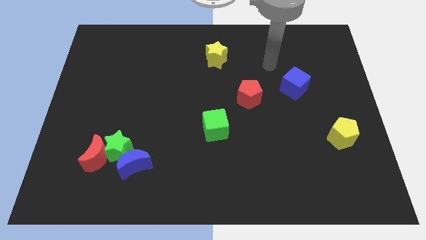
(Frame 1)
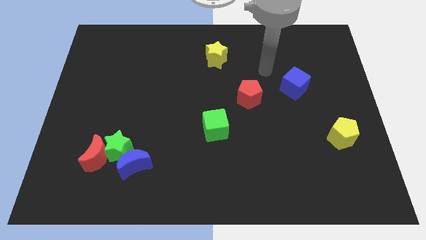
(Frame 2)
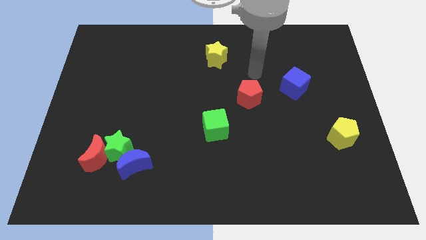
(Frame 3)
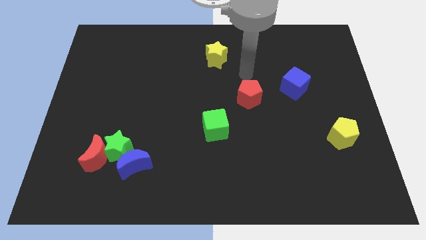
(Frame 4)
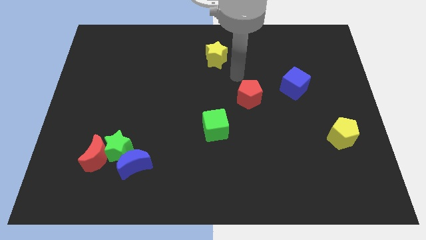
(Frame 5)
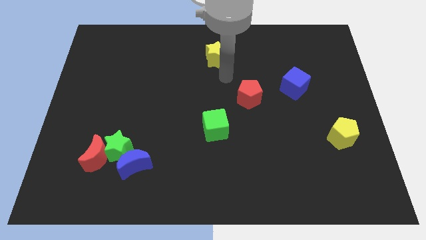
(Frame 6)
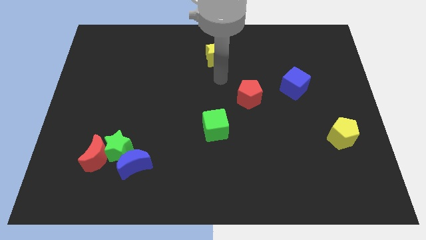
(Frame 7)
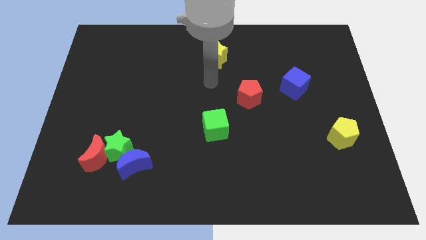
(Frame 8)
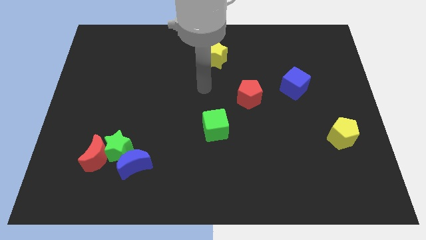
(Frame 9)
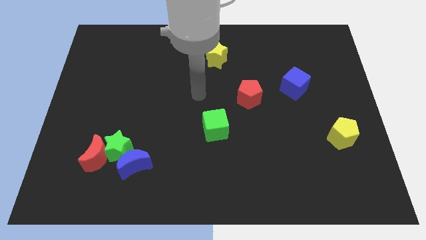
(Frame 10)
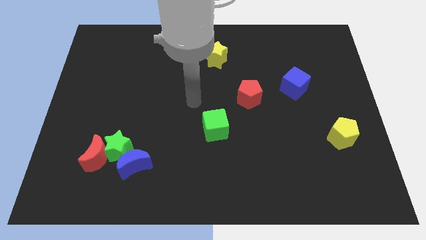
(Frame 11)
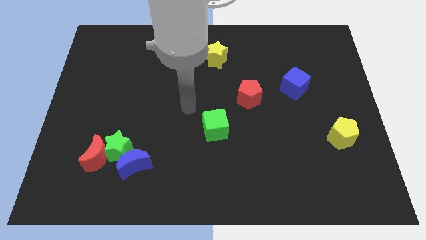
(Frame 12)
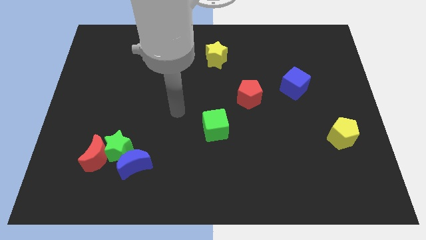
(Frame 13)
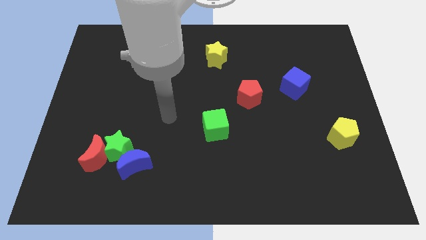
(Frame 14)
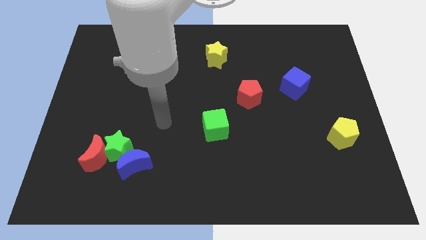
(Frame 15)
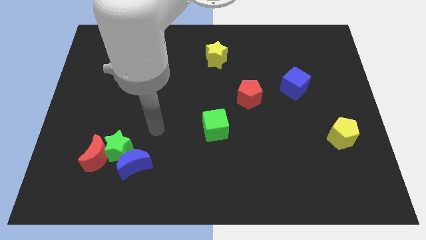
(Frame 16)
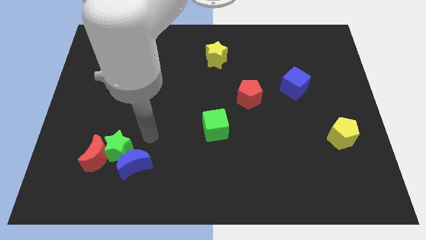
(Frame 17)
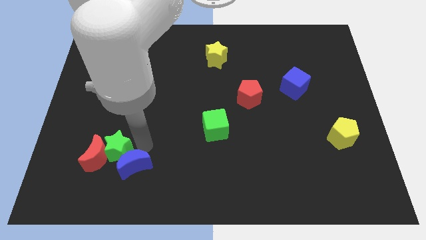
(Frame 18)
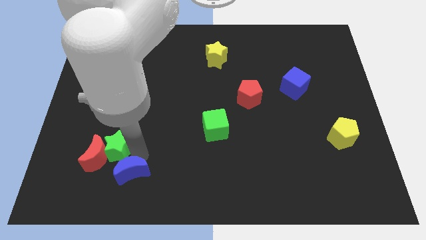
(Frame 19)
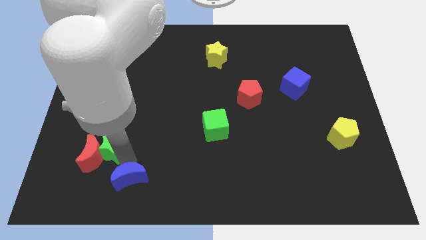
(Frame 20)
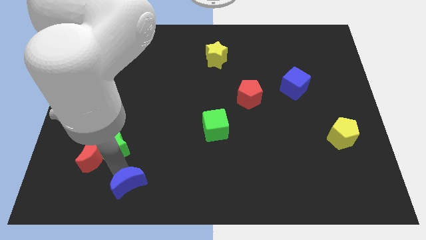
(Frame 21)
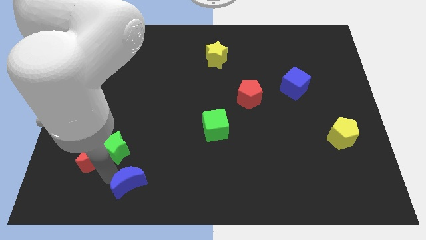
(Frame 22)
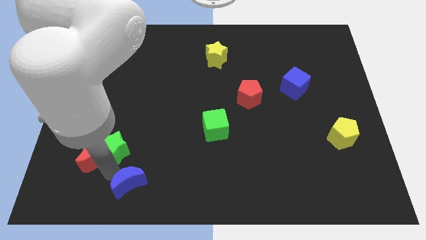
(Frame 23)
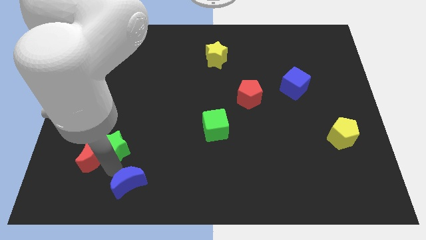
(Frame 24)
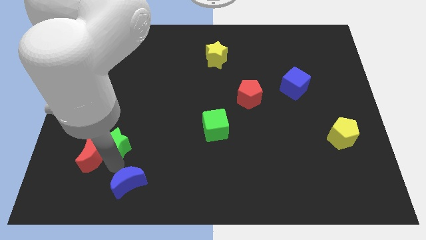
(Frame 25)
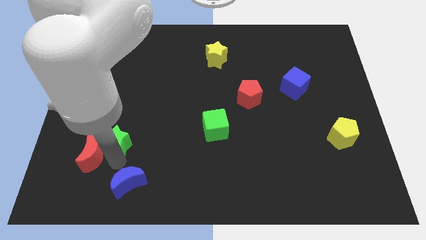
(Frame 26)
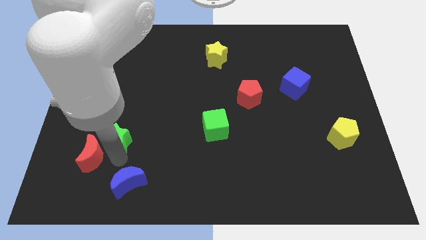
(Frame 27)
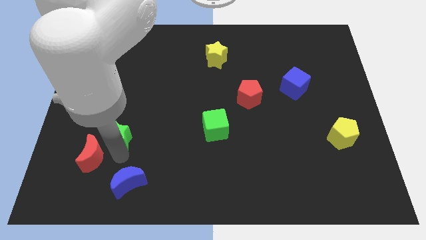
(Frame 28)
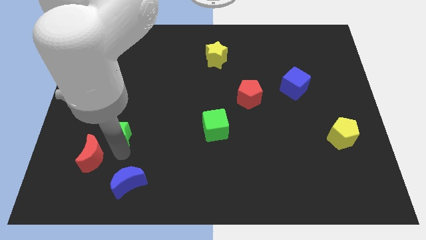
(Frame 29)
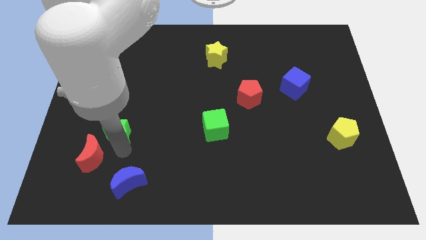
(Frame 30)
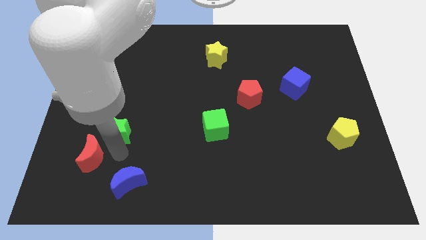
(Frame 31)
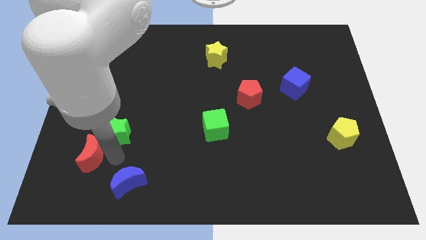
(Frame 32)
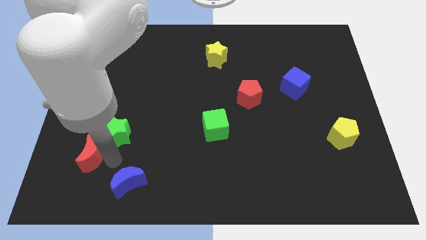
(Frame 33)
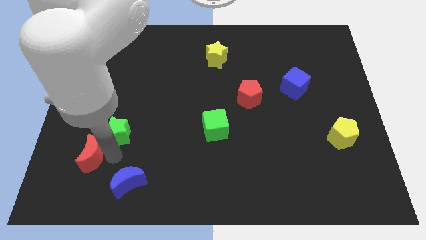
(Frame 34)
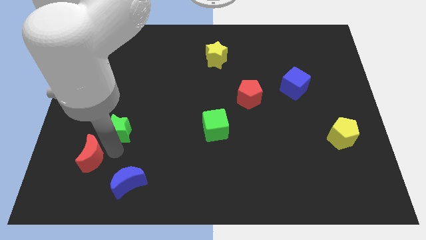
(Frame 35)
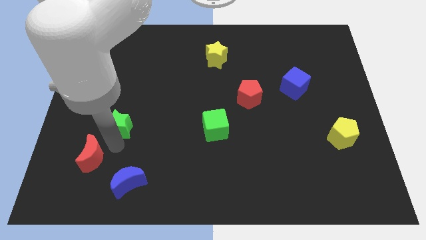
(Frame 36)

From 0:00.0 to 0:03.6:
pull the green star apart from the red moon and blue moon

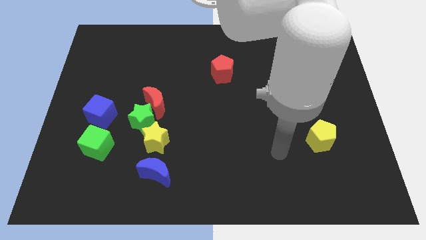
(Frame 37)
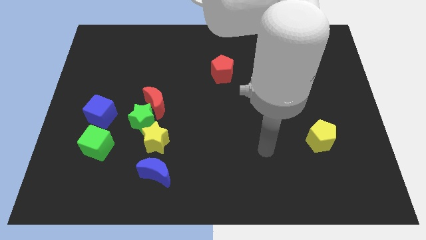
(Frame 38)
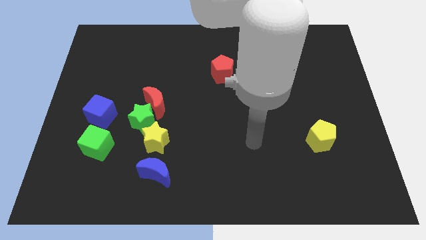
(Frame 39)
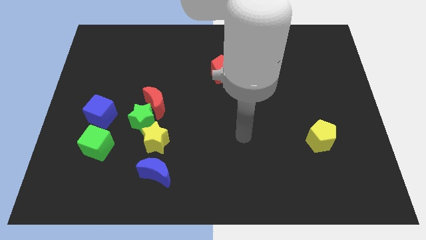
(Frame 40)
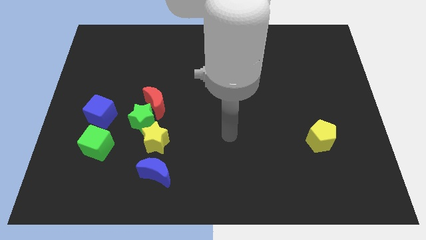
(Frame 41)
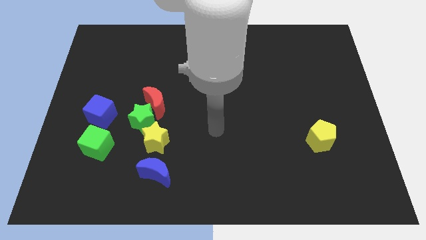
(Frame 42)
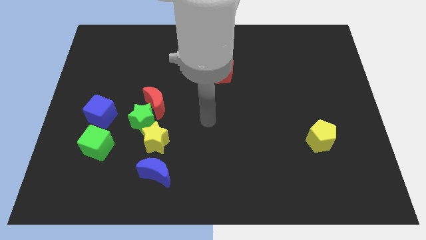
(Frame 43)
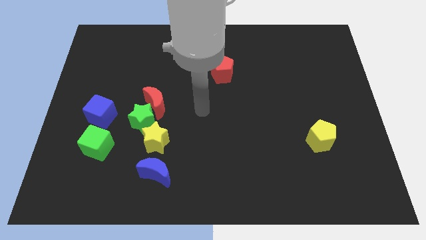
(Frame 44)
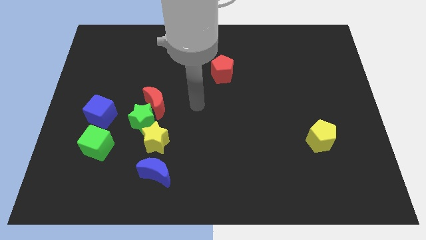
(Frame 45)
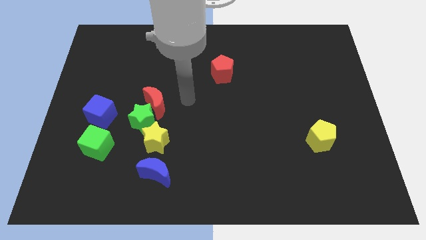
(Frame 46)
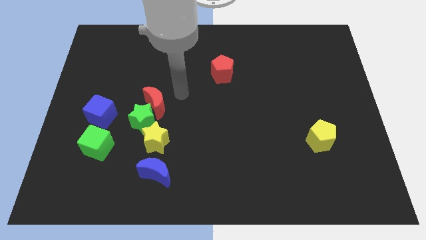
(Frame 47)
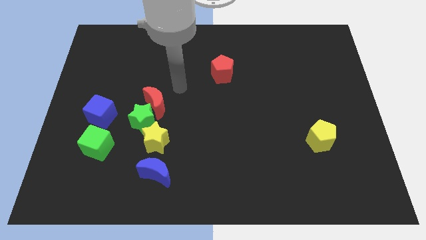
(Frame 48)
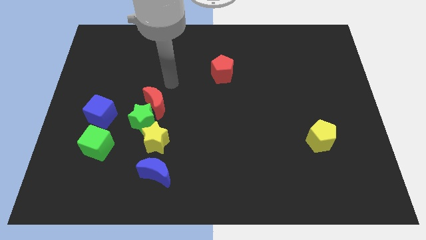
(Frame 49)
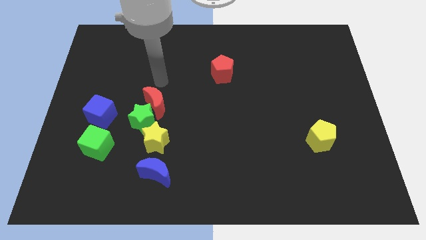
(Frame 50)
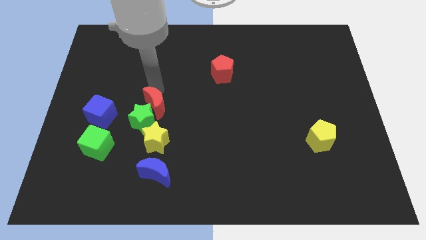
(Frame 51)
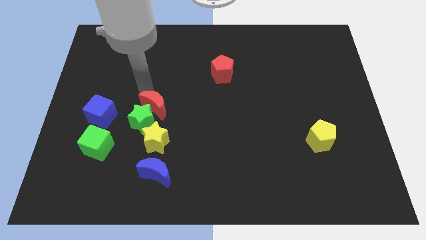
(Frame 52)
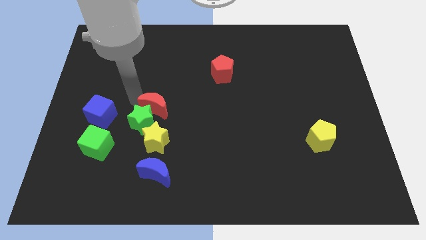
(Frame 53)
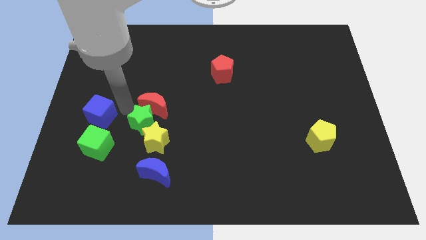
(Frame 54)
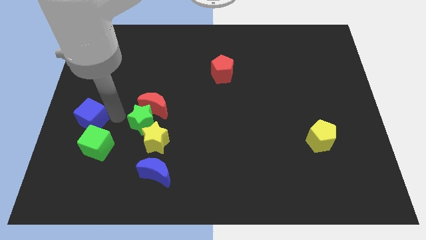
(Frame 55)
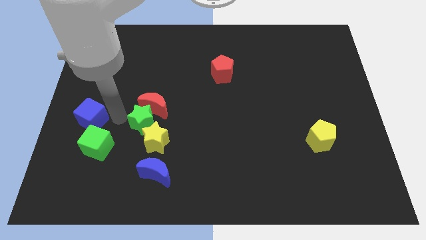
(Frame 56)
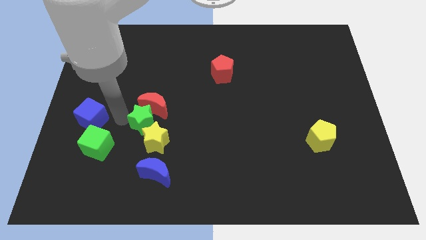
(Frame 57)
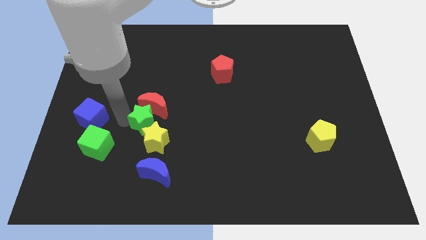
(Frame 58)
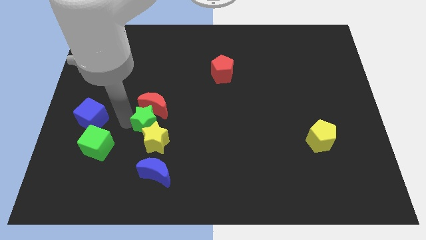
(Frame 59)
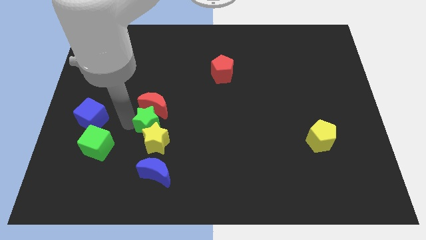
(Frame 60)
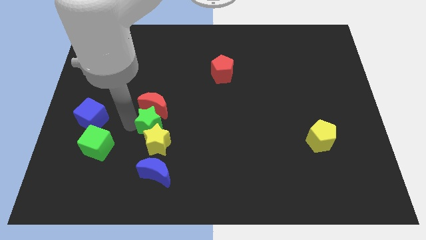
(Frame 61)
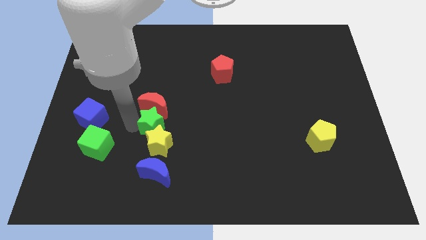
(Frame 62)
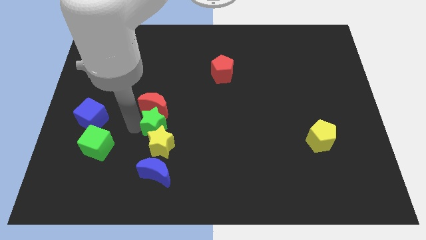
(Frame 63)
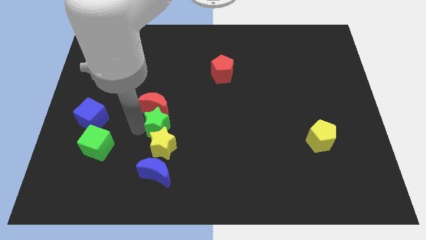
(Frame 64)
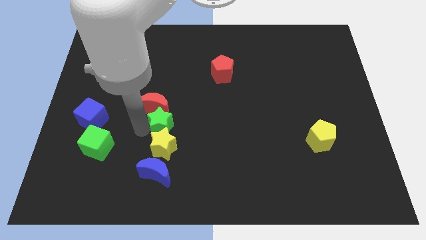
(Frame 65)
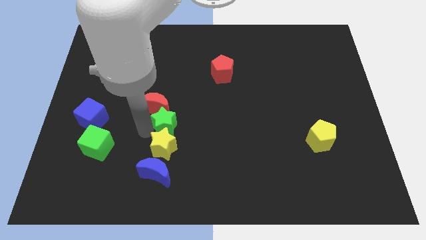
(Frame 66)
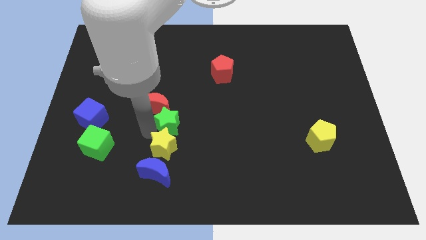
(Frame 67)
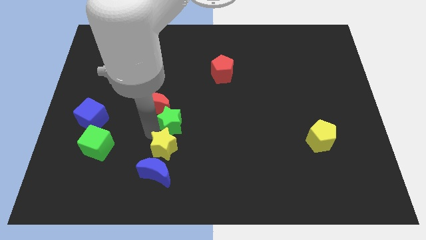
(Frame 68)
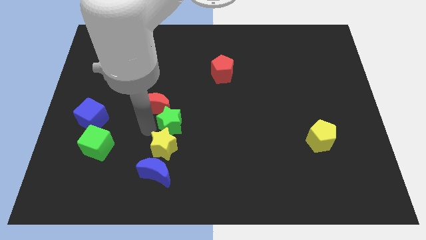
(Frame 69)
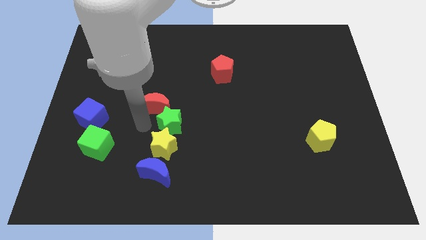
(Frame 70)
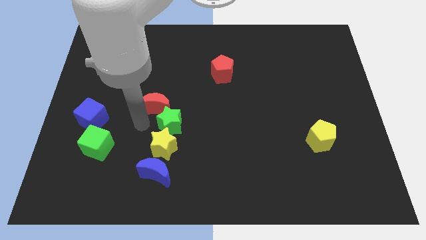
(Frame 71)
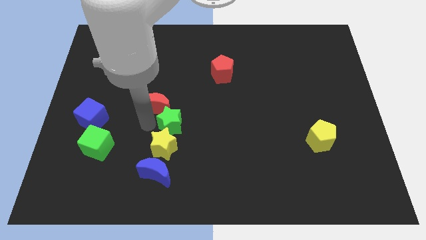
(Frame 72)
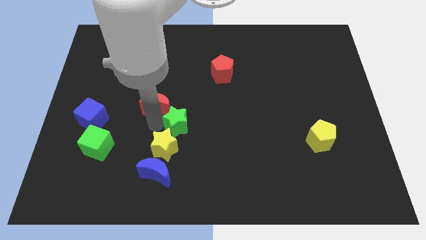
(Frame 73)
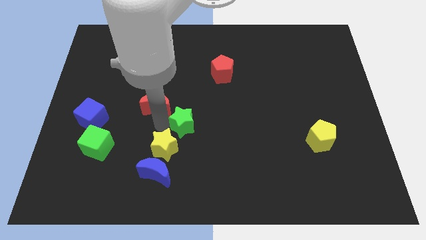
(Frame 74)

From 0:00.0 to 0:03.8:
separate the green star from the red moon, yellow star, and blue cube

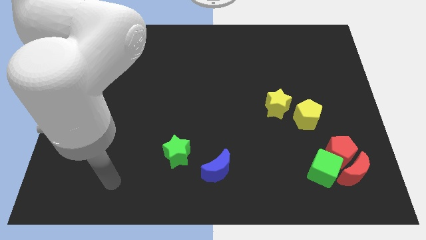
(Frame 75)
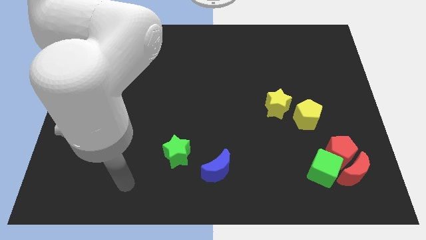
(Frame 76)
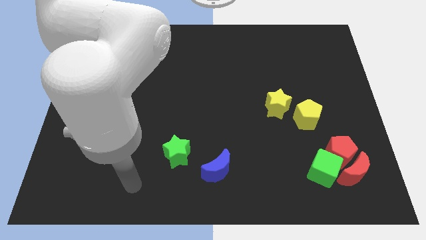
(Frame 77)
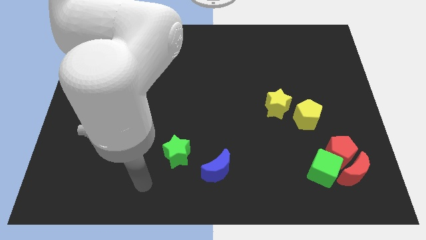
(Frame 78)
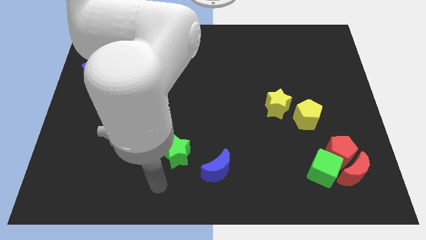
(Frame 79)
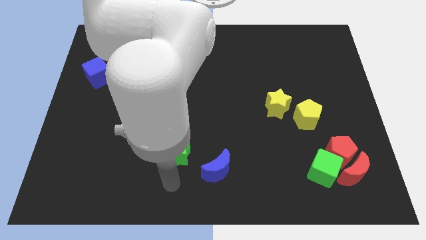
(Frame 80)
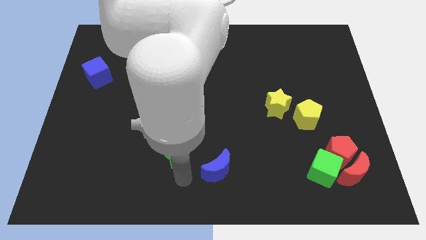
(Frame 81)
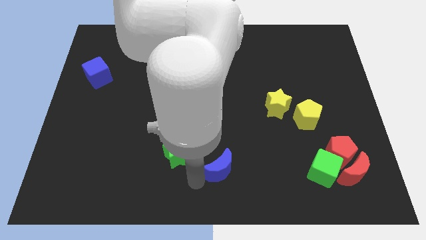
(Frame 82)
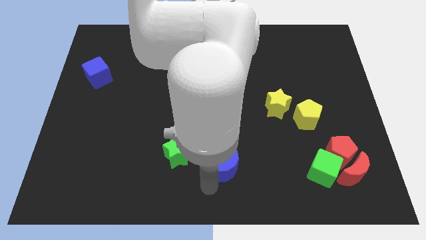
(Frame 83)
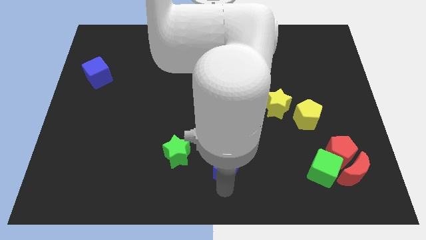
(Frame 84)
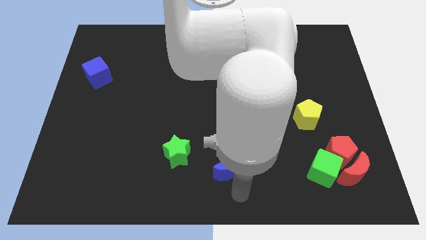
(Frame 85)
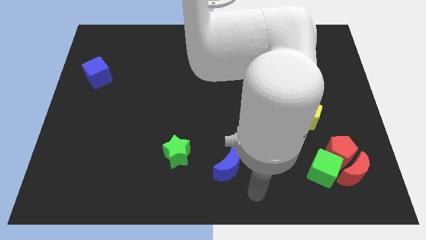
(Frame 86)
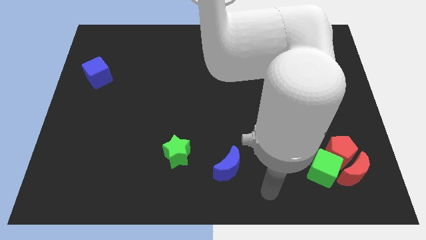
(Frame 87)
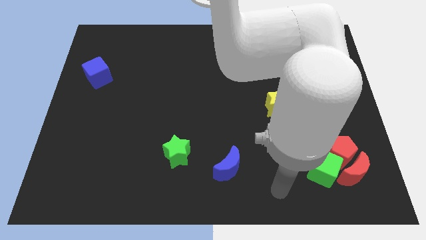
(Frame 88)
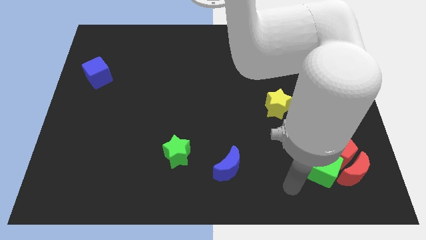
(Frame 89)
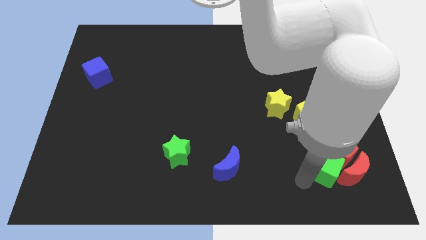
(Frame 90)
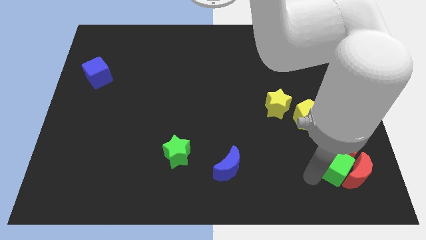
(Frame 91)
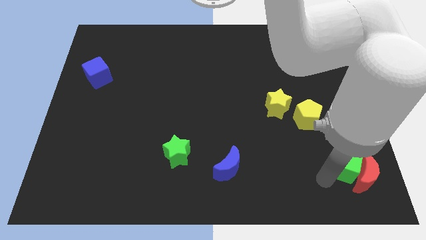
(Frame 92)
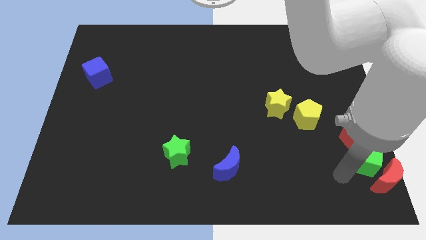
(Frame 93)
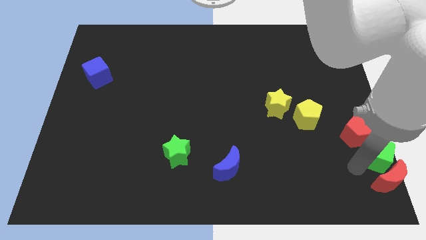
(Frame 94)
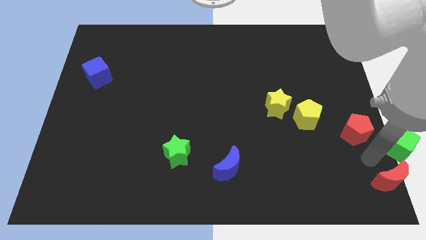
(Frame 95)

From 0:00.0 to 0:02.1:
move the red pentagon away from the red moon and green cube
